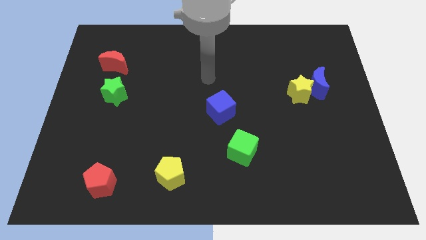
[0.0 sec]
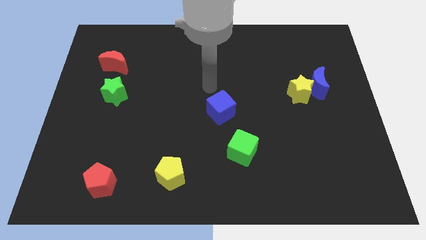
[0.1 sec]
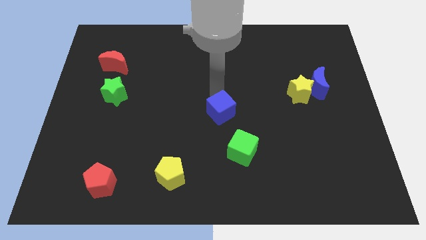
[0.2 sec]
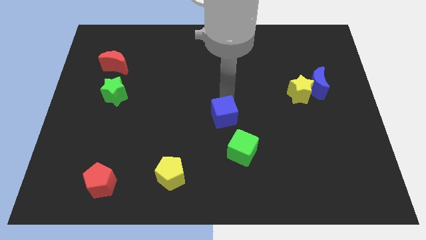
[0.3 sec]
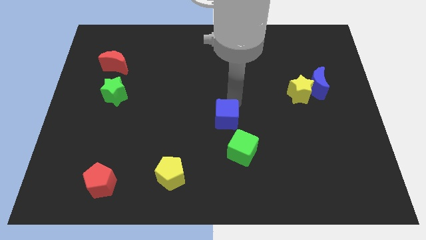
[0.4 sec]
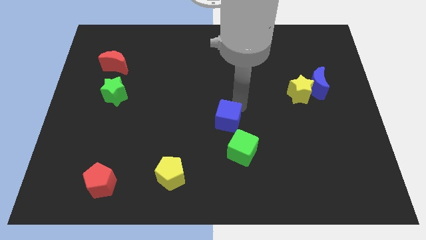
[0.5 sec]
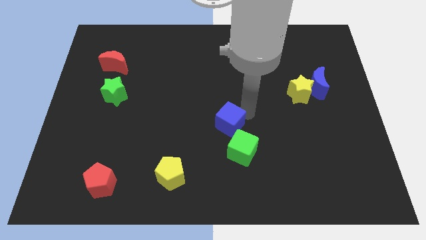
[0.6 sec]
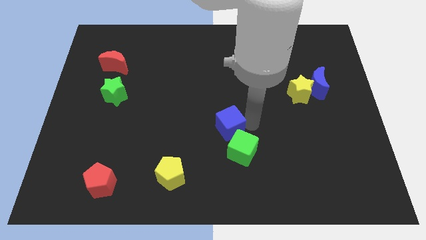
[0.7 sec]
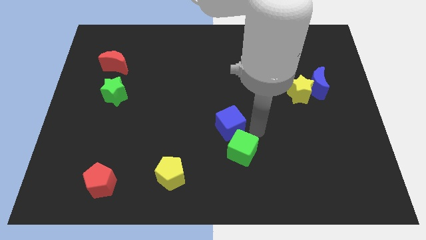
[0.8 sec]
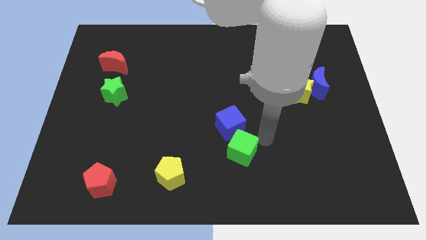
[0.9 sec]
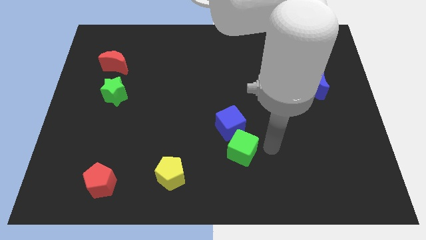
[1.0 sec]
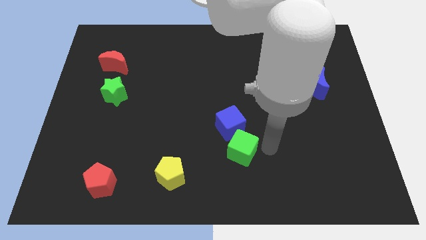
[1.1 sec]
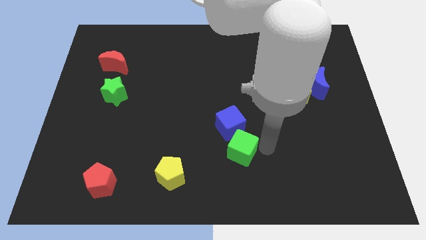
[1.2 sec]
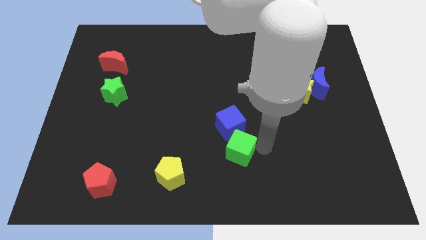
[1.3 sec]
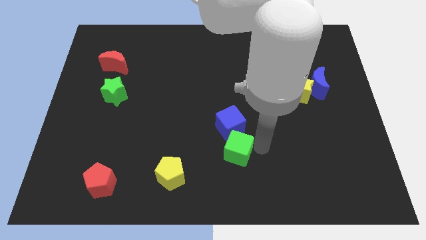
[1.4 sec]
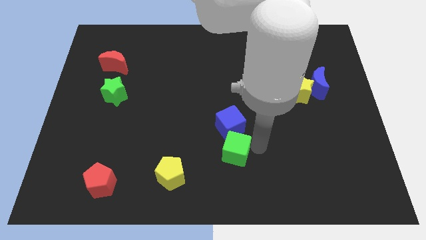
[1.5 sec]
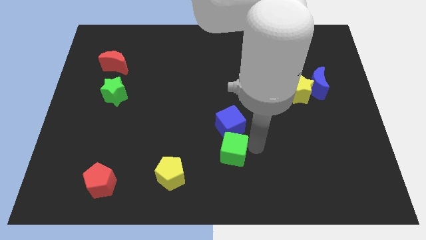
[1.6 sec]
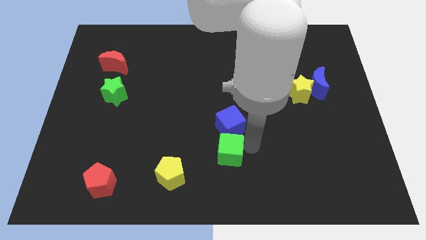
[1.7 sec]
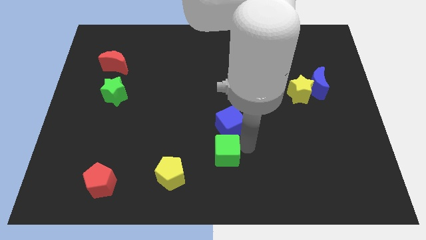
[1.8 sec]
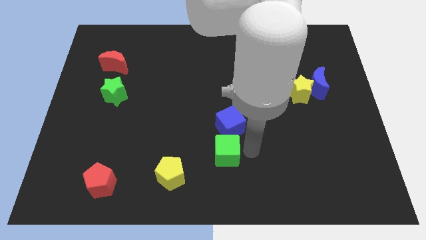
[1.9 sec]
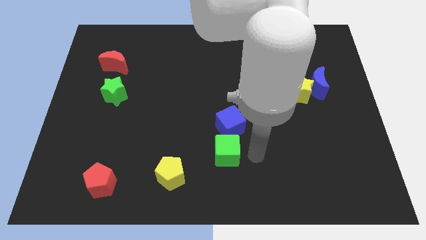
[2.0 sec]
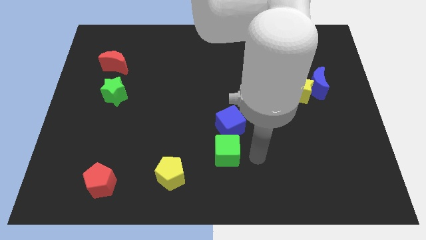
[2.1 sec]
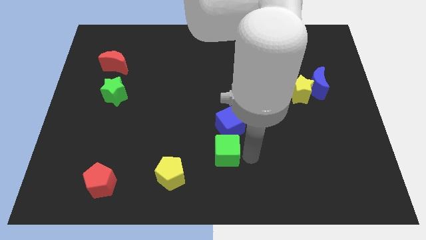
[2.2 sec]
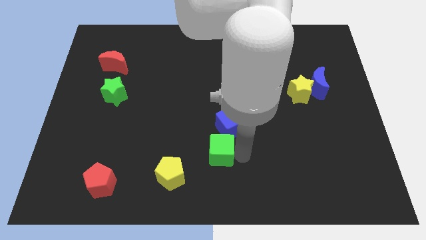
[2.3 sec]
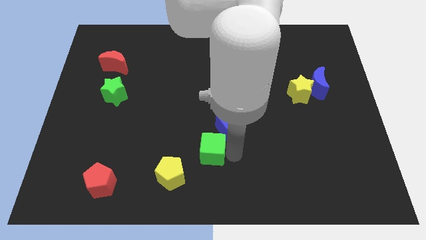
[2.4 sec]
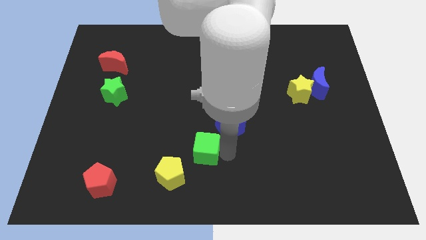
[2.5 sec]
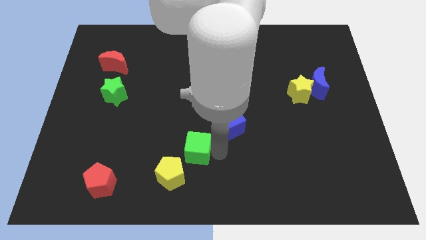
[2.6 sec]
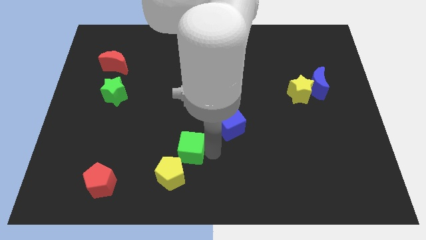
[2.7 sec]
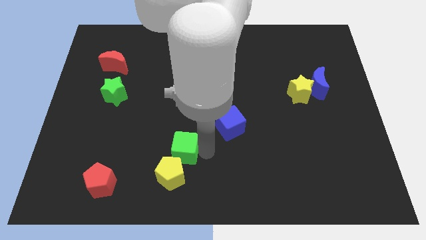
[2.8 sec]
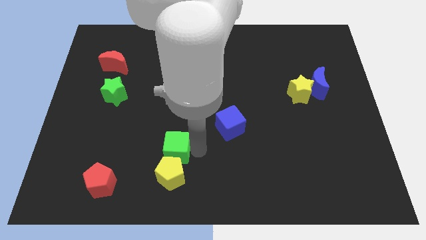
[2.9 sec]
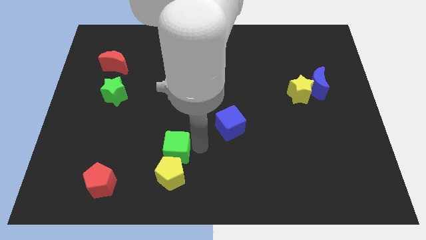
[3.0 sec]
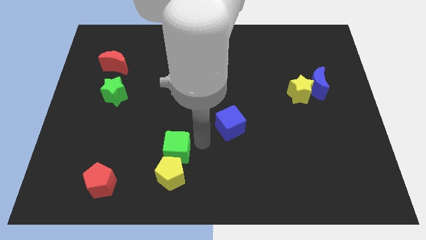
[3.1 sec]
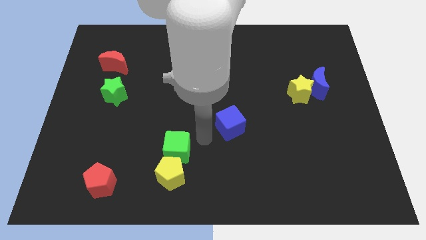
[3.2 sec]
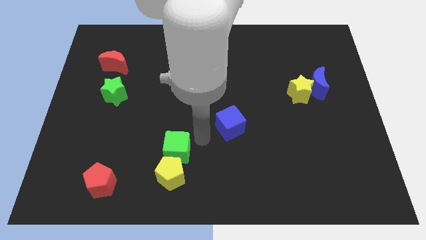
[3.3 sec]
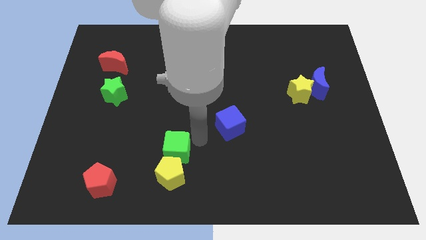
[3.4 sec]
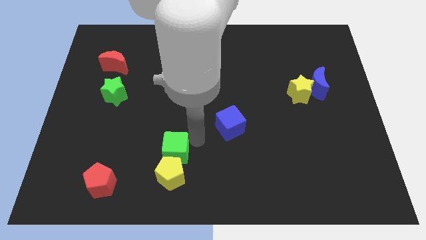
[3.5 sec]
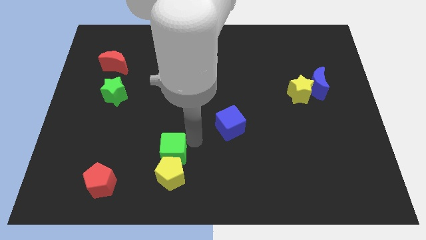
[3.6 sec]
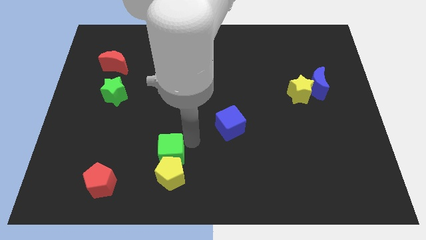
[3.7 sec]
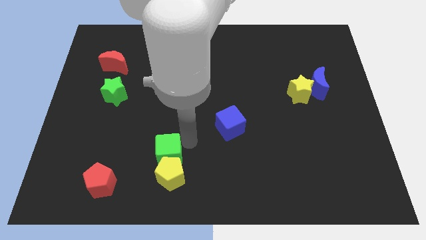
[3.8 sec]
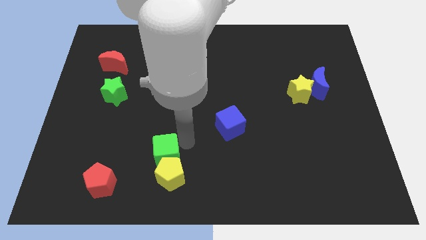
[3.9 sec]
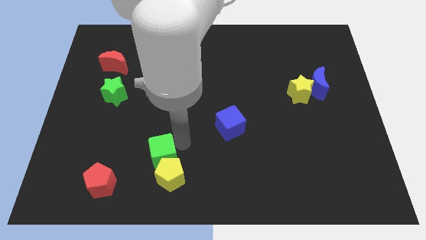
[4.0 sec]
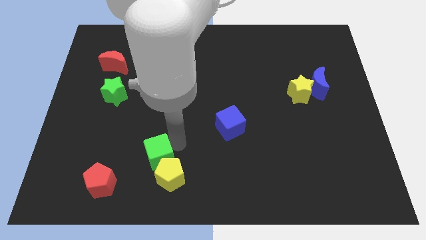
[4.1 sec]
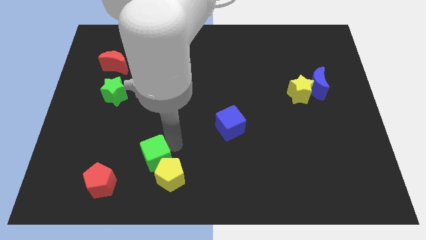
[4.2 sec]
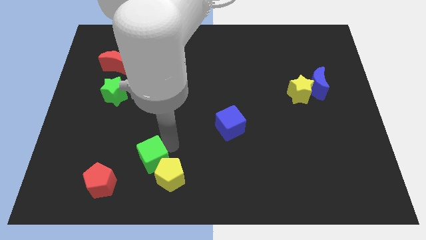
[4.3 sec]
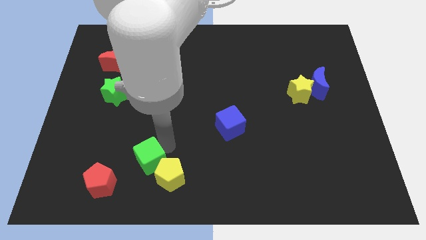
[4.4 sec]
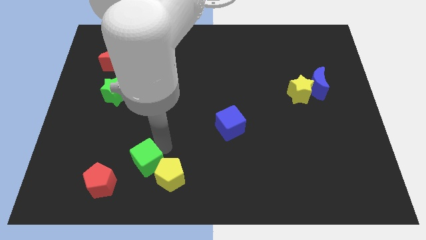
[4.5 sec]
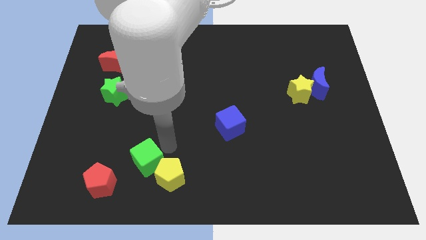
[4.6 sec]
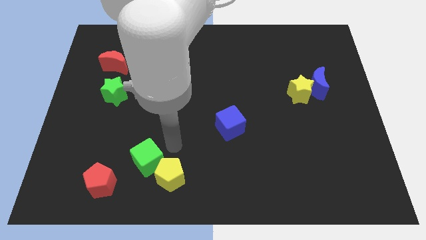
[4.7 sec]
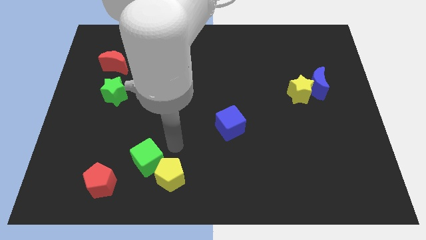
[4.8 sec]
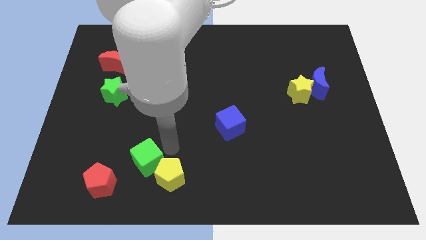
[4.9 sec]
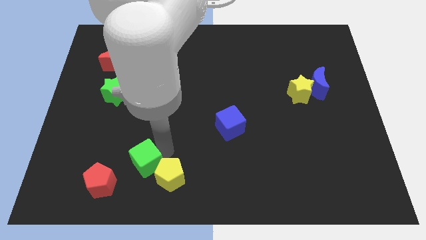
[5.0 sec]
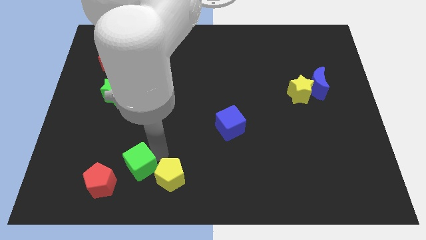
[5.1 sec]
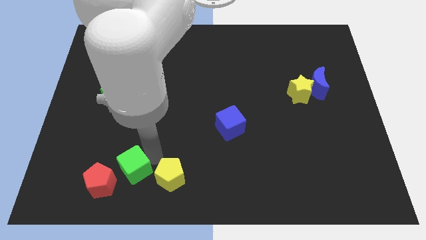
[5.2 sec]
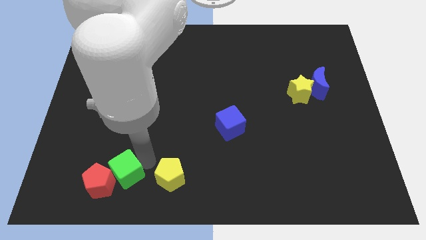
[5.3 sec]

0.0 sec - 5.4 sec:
push the green cube close to the red pentagon

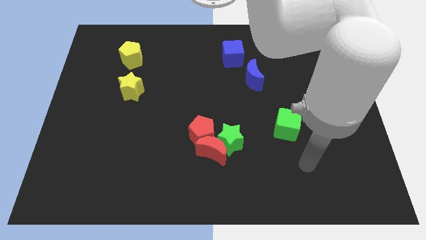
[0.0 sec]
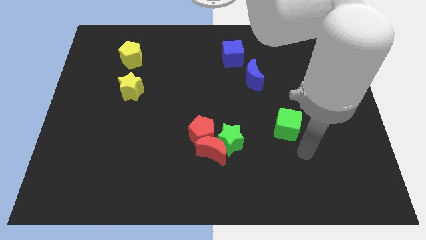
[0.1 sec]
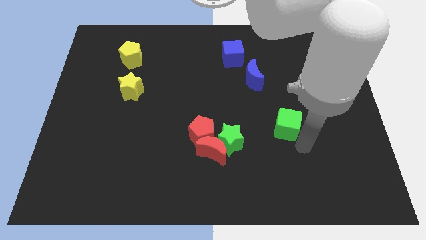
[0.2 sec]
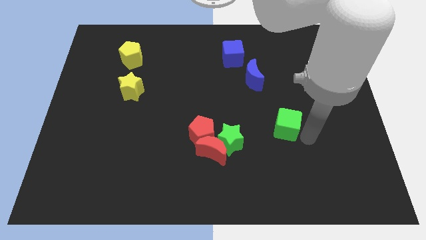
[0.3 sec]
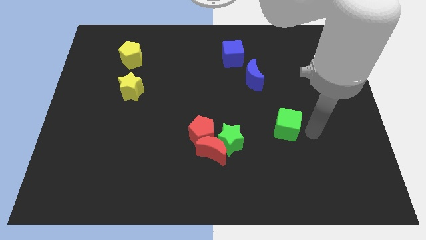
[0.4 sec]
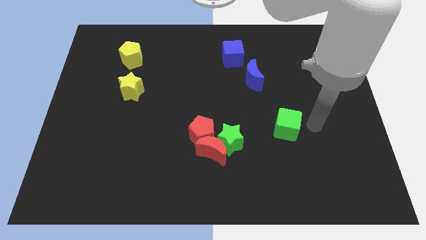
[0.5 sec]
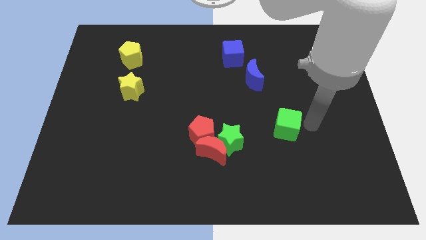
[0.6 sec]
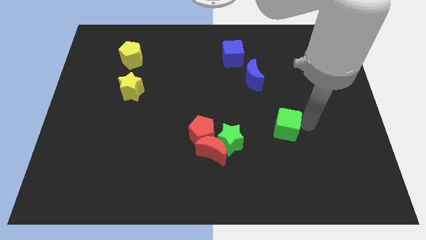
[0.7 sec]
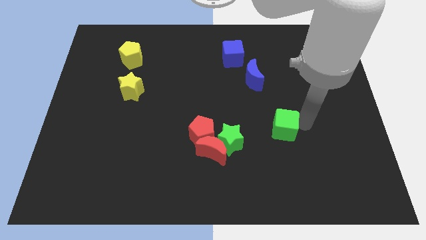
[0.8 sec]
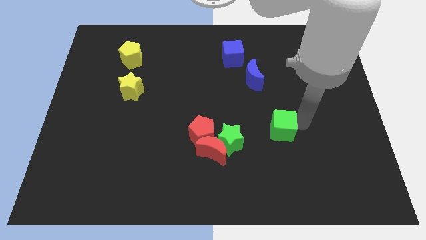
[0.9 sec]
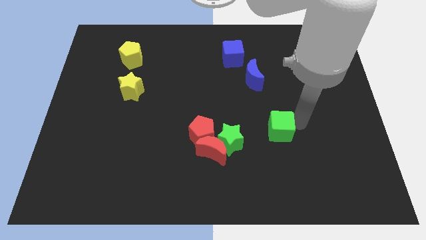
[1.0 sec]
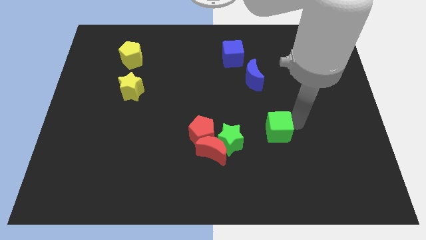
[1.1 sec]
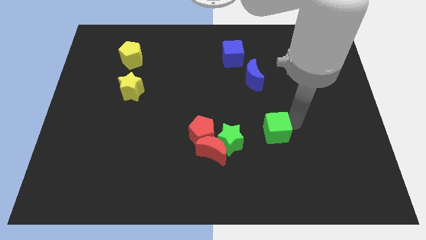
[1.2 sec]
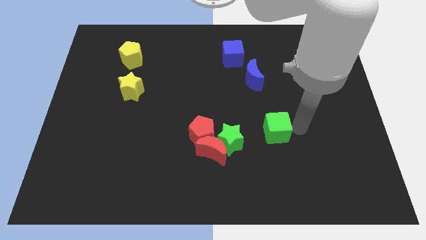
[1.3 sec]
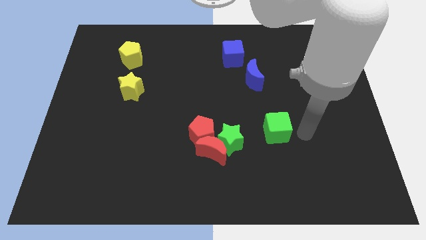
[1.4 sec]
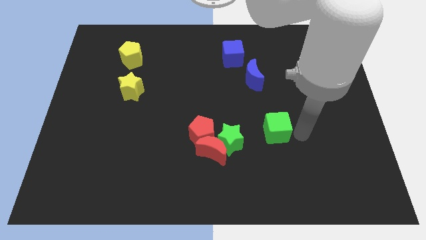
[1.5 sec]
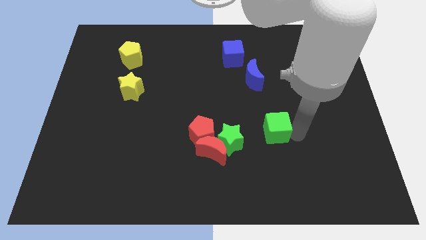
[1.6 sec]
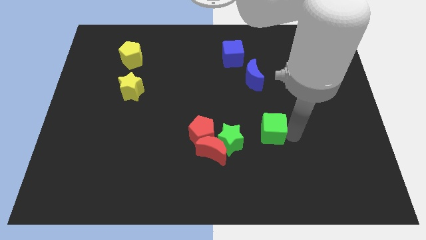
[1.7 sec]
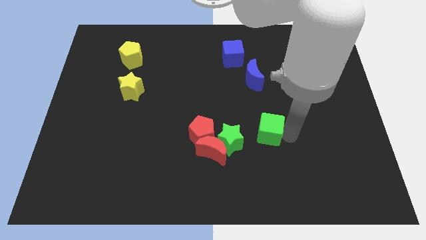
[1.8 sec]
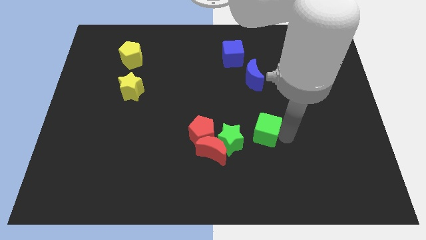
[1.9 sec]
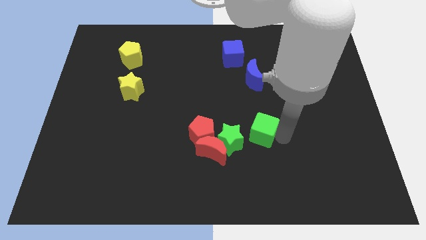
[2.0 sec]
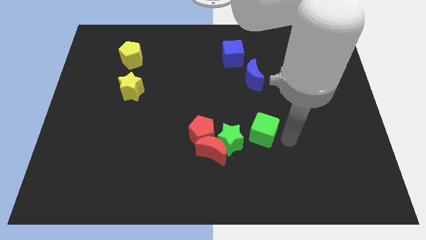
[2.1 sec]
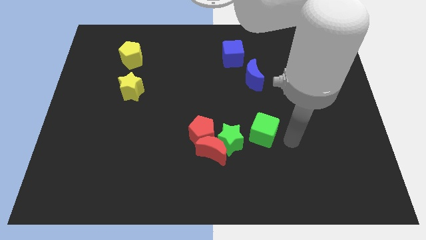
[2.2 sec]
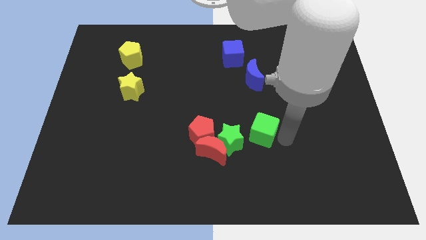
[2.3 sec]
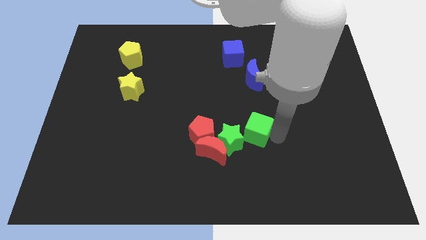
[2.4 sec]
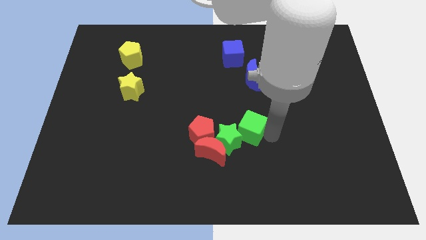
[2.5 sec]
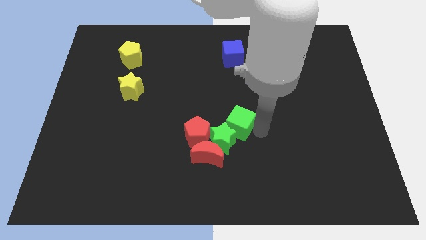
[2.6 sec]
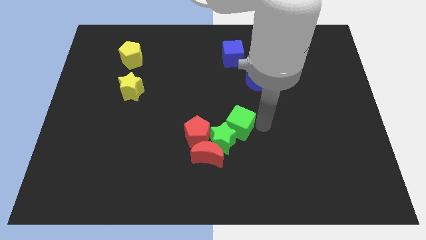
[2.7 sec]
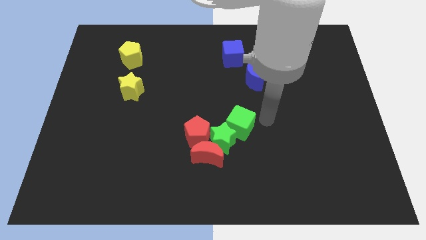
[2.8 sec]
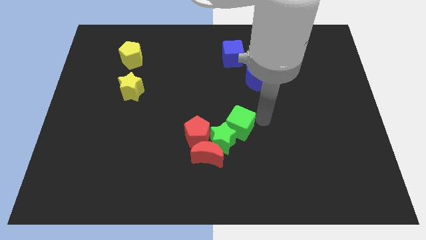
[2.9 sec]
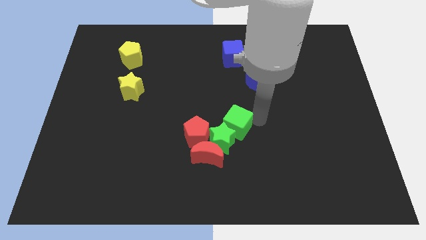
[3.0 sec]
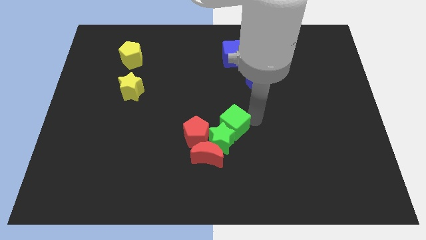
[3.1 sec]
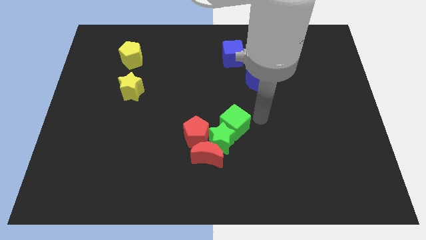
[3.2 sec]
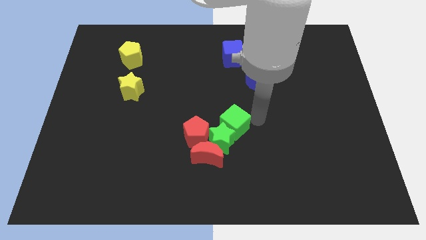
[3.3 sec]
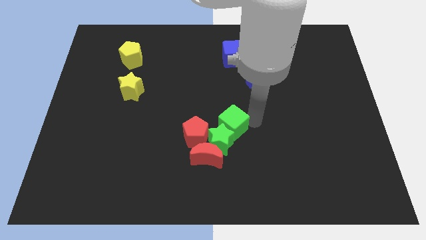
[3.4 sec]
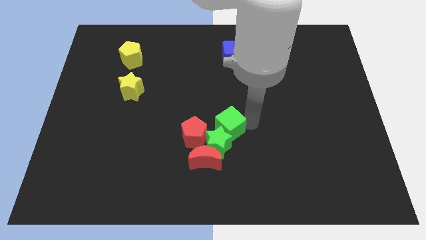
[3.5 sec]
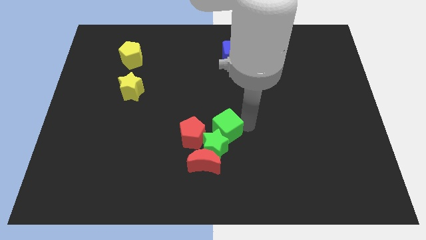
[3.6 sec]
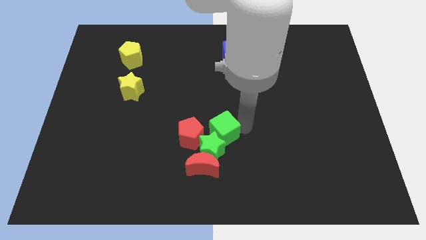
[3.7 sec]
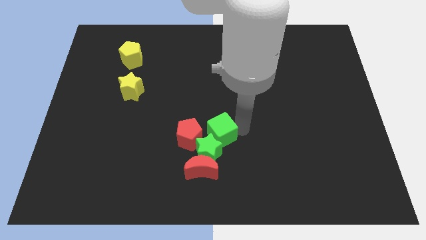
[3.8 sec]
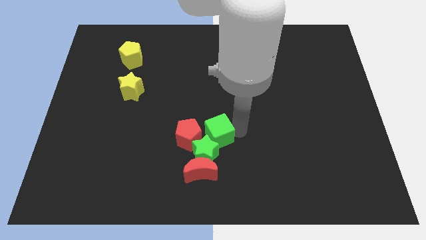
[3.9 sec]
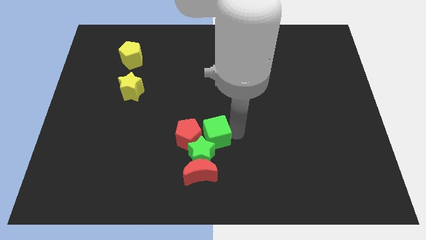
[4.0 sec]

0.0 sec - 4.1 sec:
put the green cube to the red pentagon
